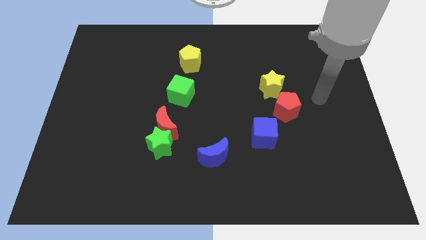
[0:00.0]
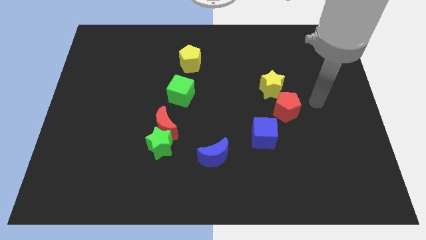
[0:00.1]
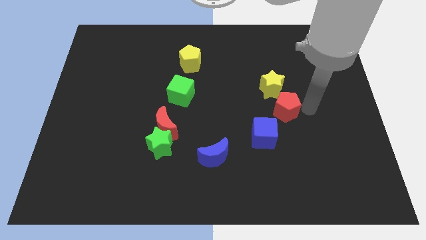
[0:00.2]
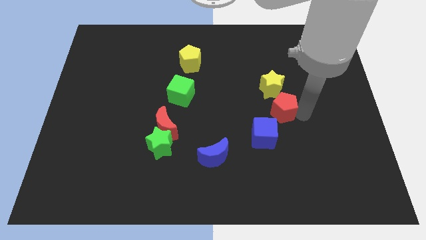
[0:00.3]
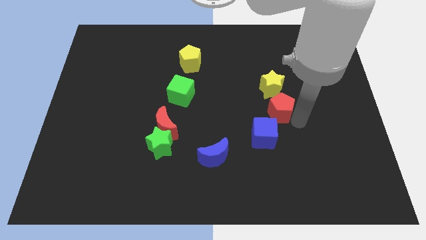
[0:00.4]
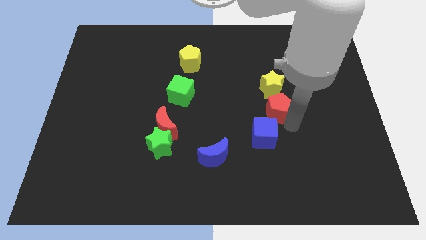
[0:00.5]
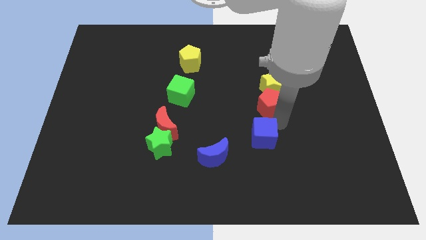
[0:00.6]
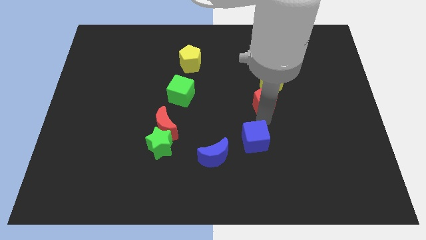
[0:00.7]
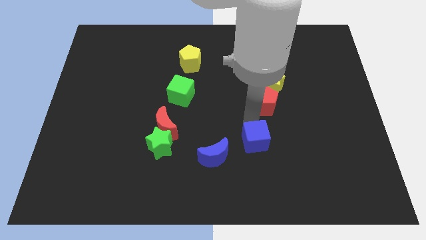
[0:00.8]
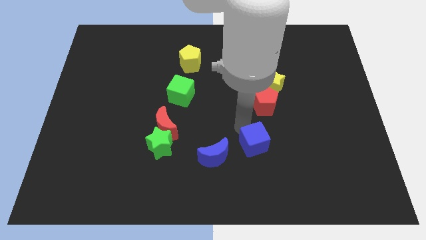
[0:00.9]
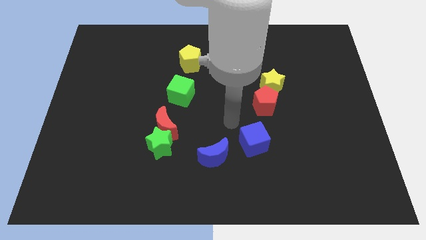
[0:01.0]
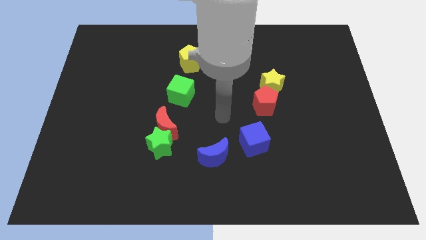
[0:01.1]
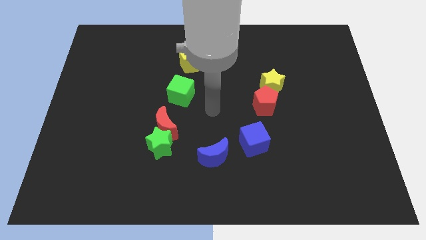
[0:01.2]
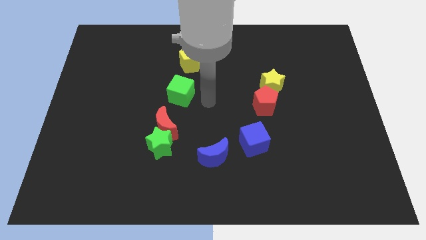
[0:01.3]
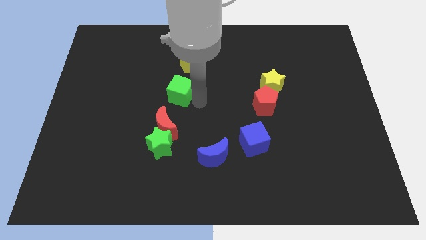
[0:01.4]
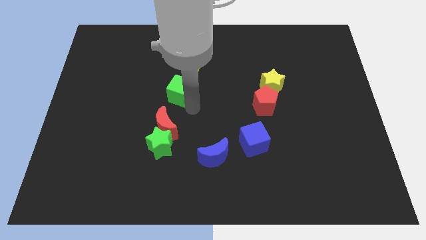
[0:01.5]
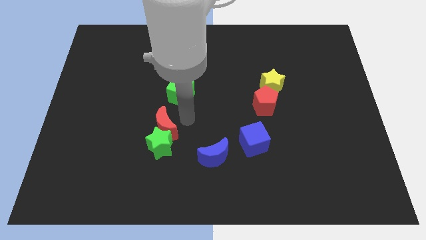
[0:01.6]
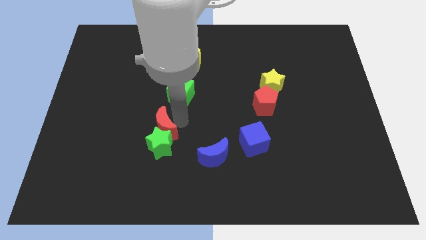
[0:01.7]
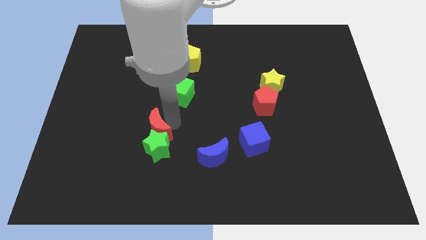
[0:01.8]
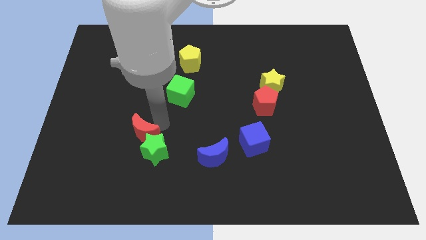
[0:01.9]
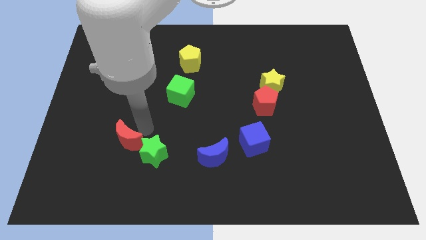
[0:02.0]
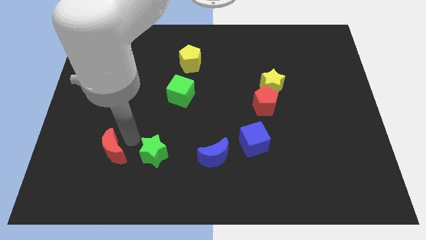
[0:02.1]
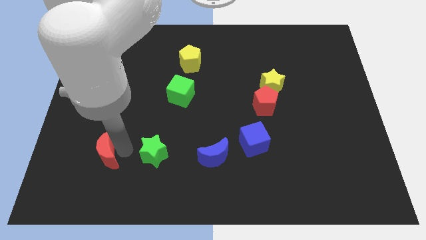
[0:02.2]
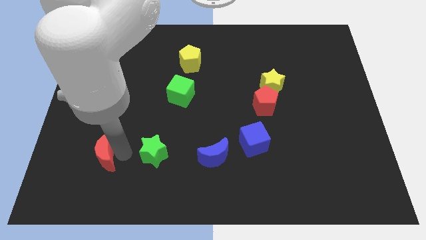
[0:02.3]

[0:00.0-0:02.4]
separate the green star from the red moon

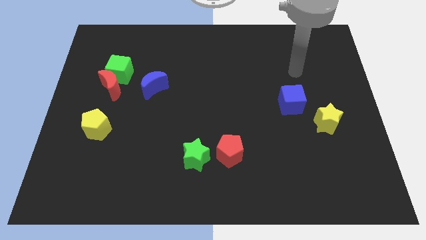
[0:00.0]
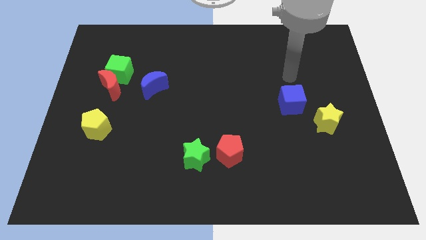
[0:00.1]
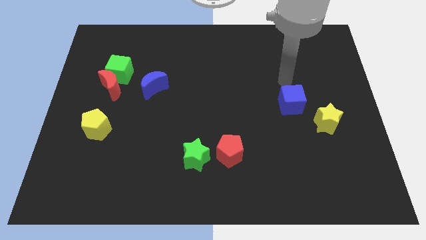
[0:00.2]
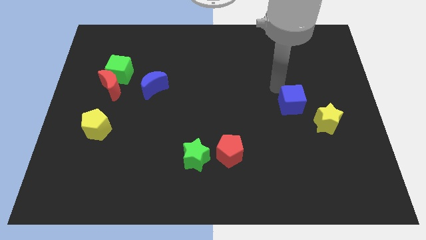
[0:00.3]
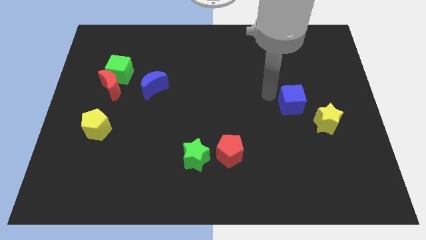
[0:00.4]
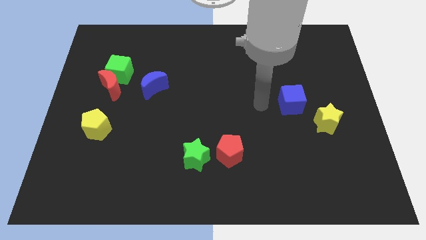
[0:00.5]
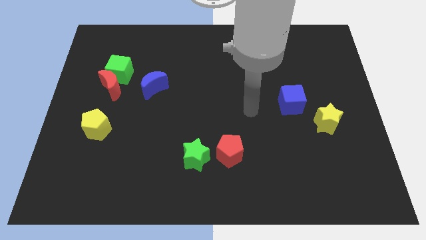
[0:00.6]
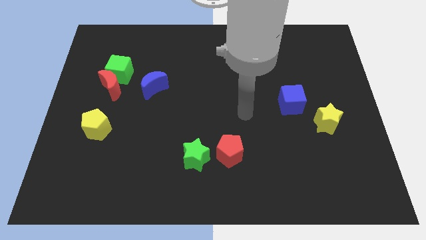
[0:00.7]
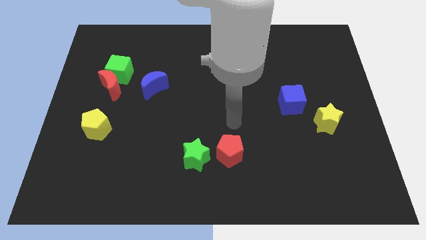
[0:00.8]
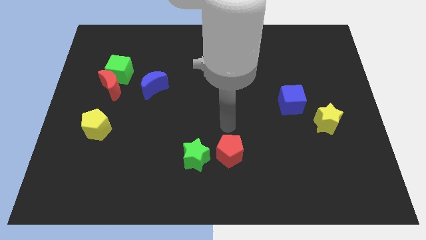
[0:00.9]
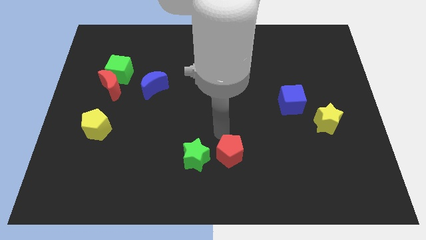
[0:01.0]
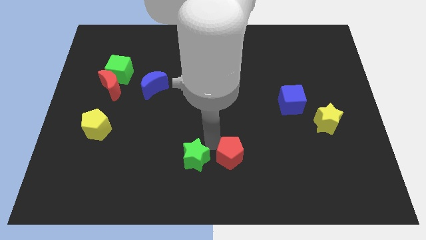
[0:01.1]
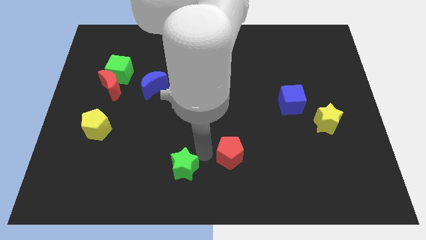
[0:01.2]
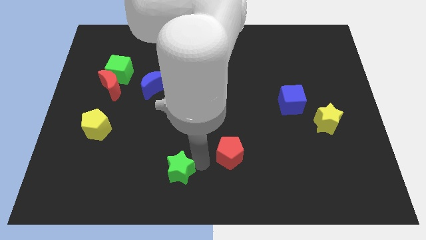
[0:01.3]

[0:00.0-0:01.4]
separate the red pentagon from the green star

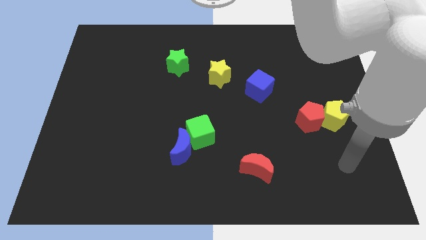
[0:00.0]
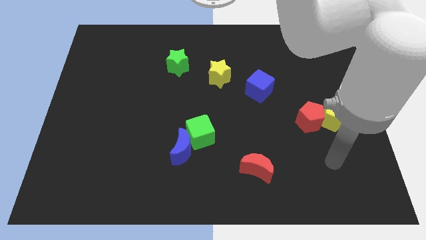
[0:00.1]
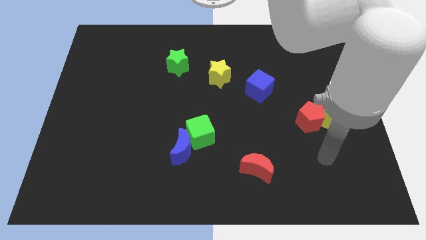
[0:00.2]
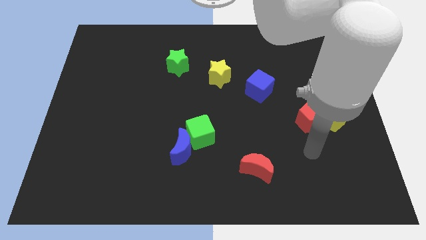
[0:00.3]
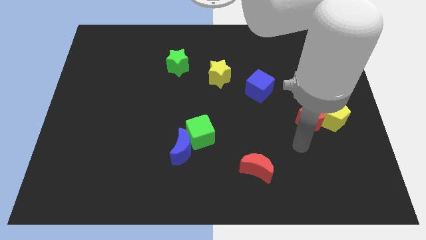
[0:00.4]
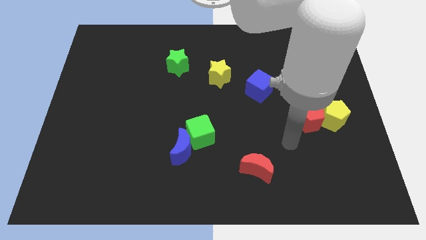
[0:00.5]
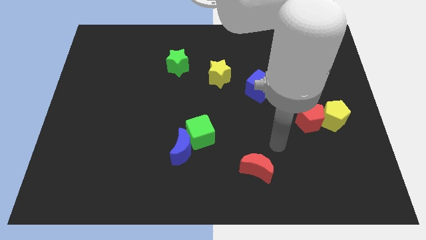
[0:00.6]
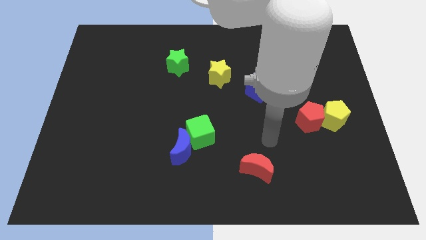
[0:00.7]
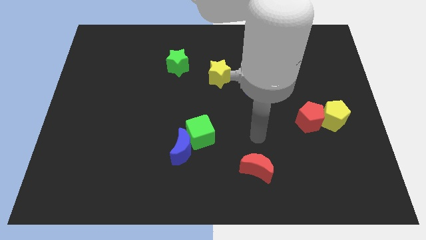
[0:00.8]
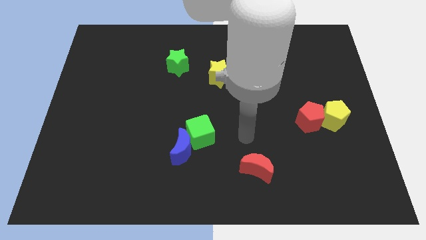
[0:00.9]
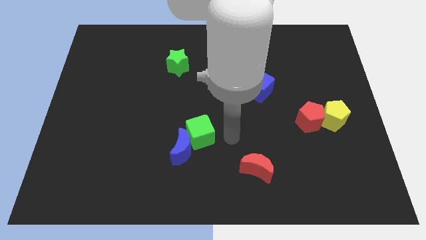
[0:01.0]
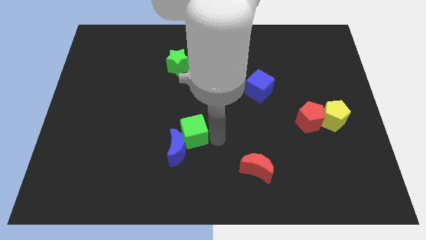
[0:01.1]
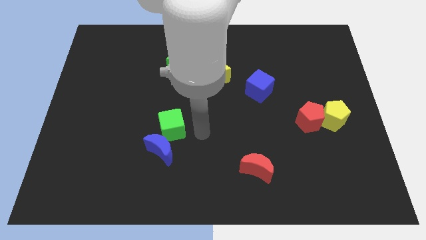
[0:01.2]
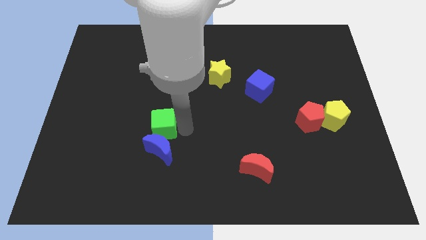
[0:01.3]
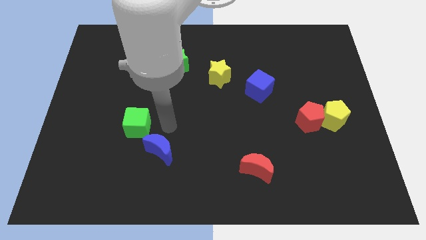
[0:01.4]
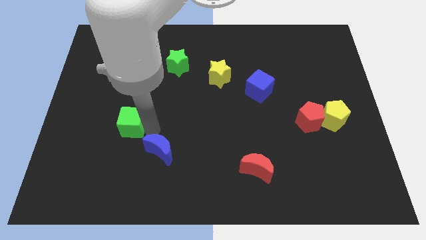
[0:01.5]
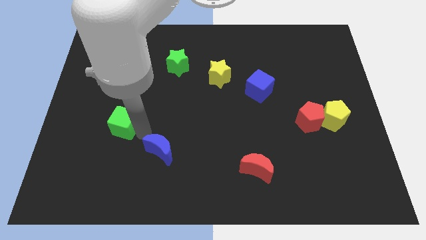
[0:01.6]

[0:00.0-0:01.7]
separate the blue moon from the green cube

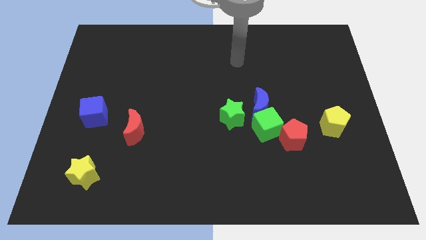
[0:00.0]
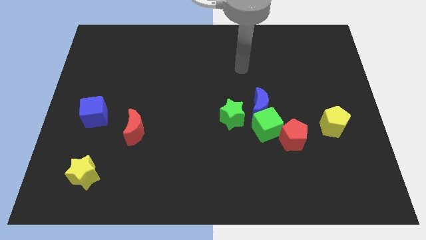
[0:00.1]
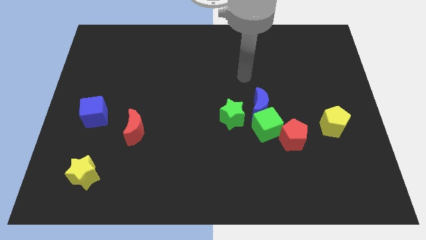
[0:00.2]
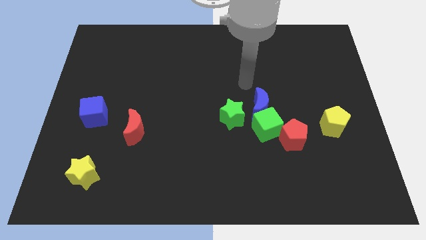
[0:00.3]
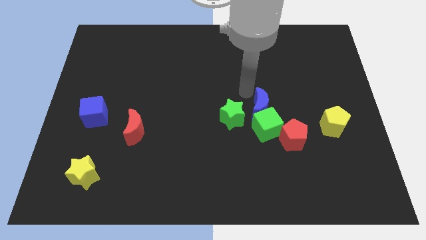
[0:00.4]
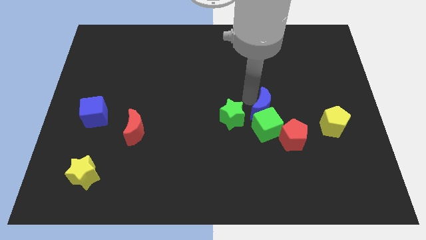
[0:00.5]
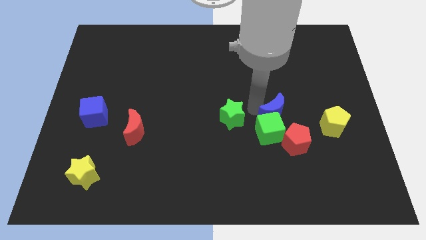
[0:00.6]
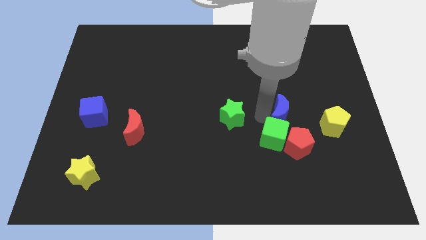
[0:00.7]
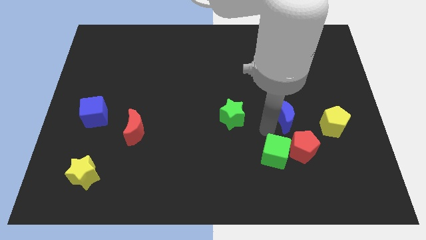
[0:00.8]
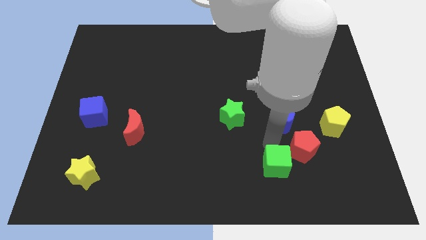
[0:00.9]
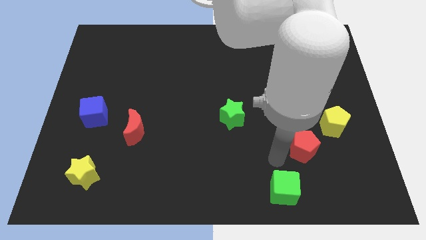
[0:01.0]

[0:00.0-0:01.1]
pull the red pentagon apart from the green cube

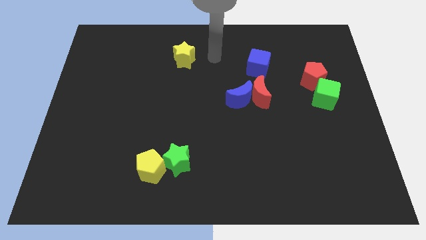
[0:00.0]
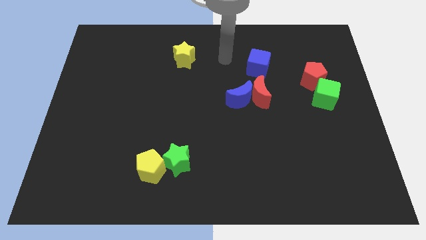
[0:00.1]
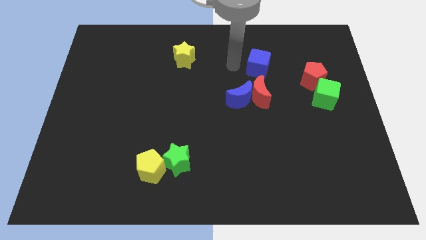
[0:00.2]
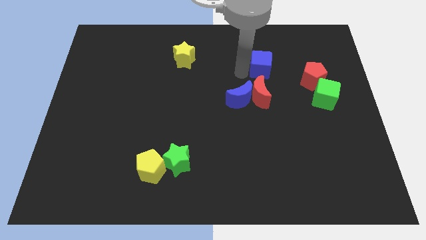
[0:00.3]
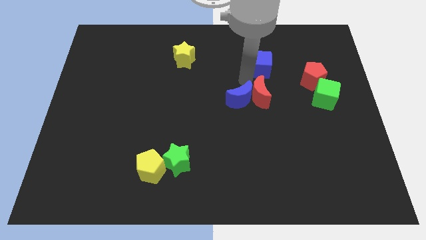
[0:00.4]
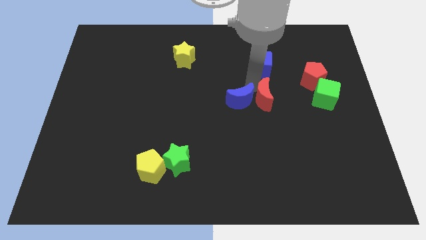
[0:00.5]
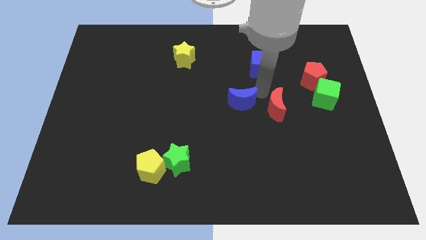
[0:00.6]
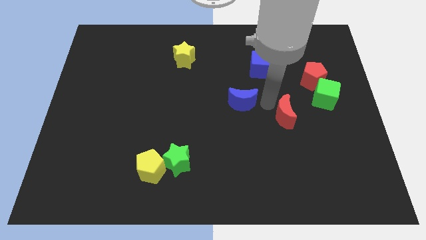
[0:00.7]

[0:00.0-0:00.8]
move the blue moon away from the red moon

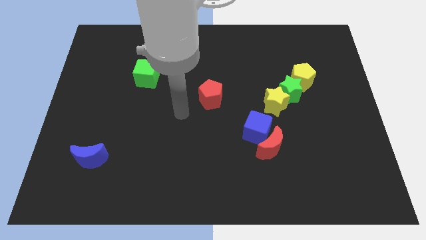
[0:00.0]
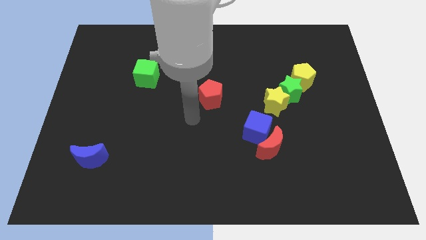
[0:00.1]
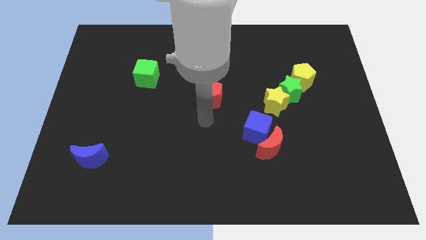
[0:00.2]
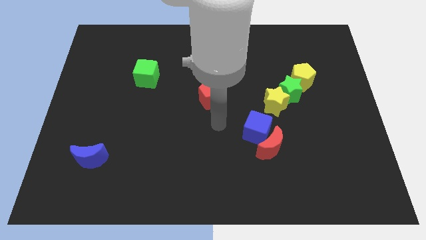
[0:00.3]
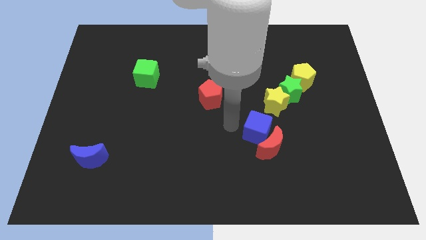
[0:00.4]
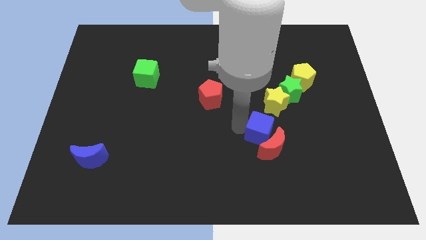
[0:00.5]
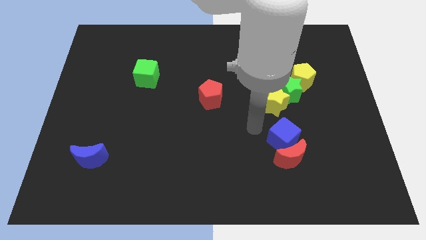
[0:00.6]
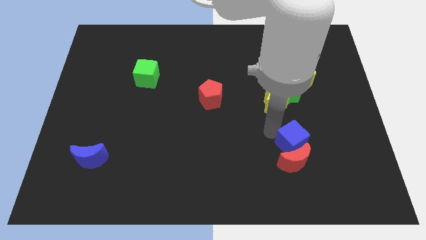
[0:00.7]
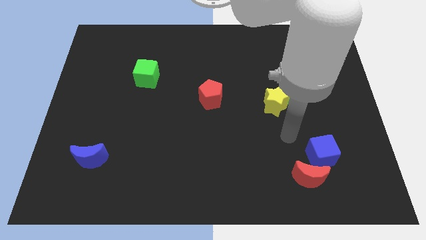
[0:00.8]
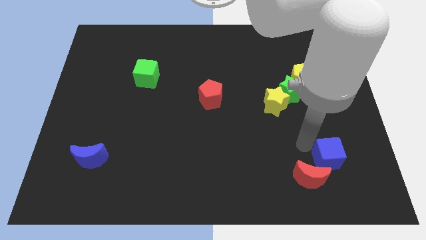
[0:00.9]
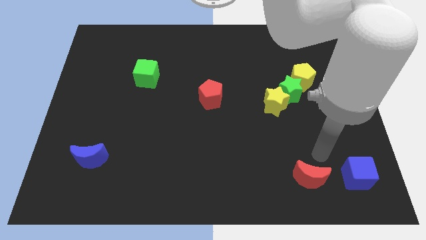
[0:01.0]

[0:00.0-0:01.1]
move the red moon away from the blue cube

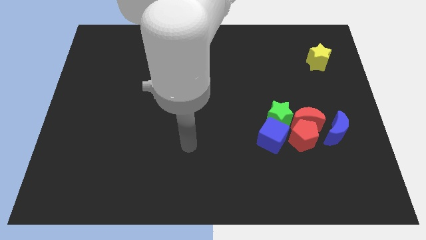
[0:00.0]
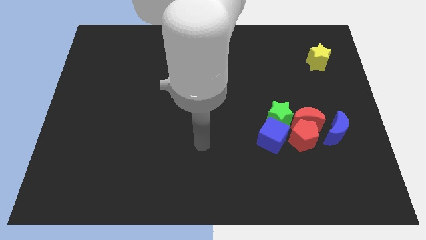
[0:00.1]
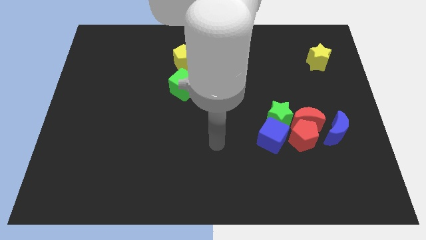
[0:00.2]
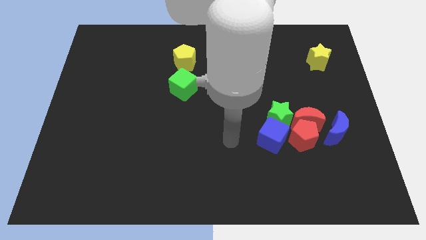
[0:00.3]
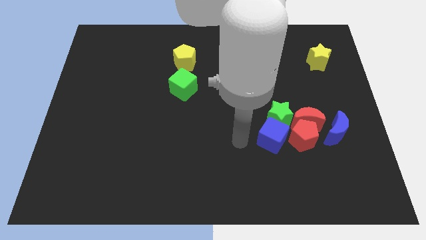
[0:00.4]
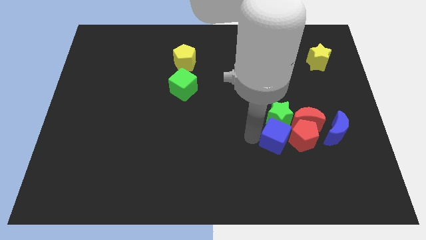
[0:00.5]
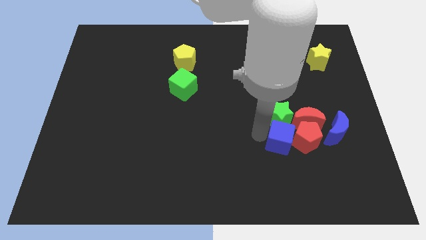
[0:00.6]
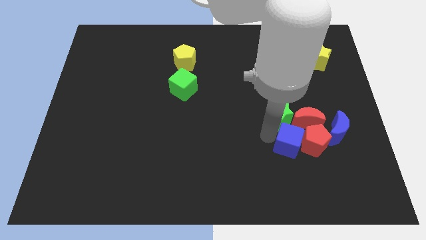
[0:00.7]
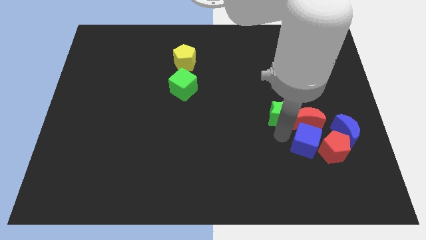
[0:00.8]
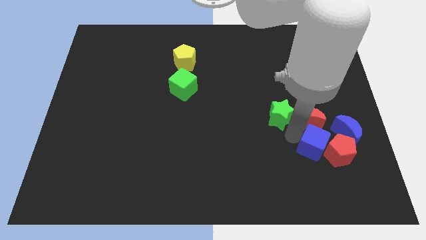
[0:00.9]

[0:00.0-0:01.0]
pull the green star apart from the group
